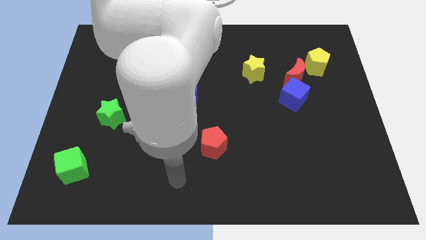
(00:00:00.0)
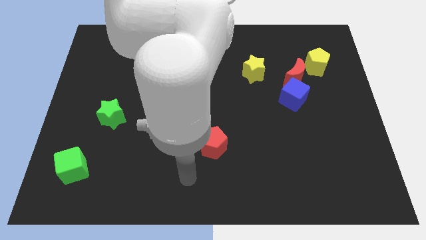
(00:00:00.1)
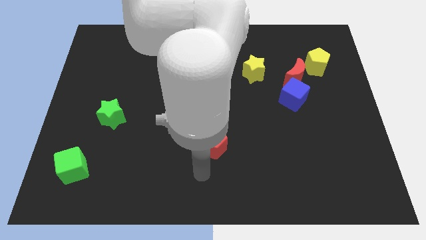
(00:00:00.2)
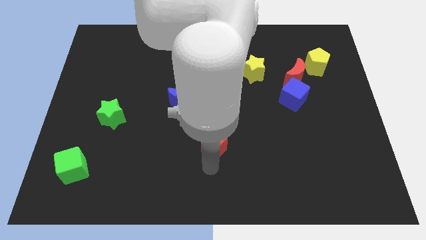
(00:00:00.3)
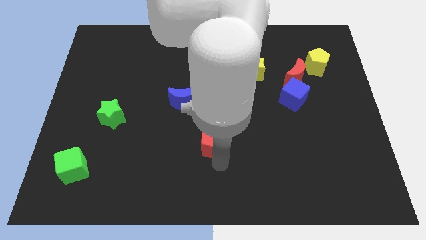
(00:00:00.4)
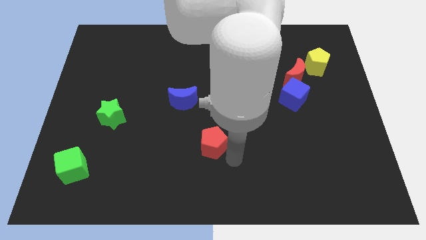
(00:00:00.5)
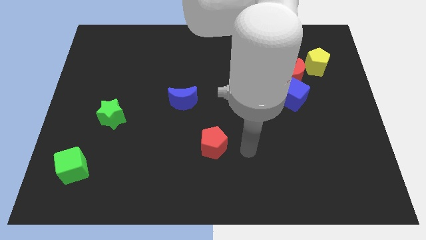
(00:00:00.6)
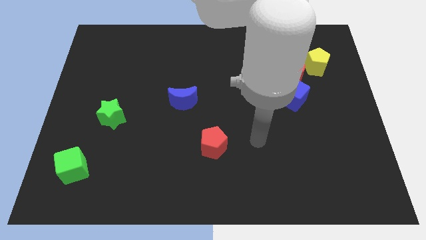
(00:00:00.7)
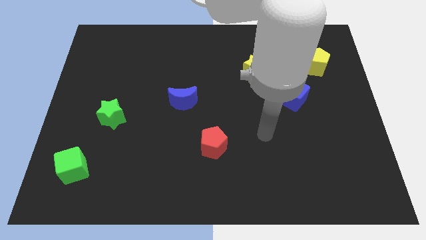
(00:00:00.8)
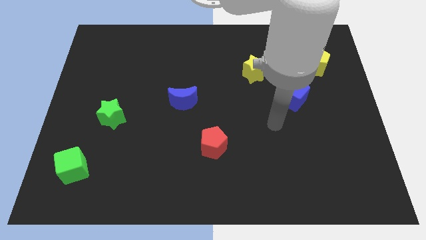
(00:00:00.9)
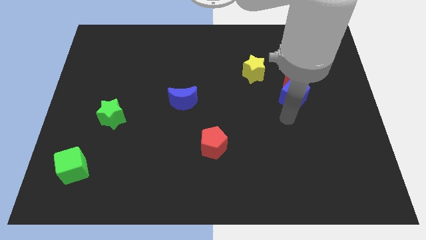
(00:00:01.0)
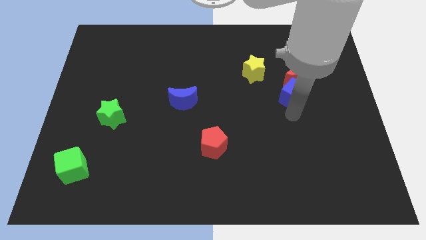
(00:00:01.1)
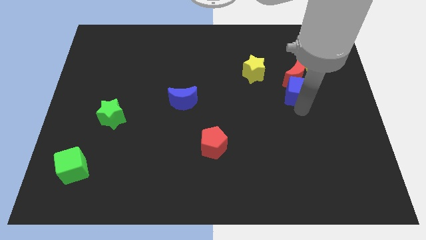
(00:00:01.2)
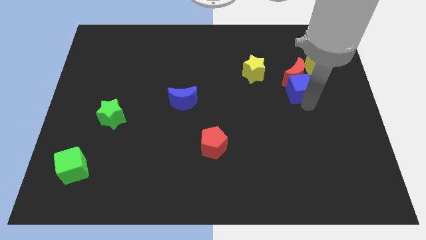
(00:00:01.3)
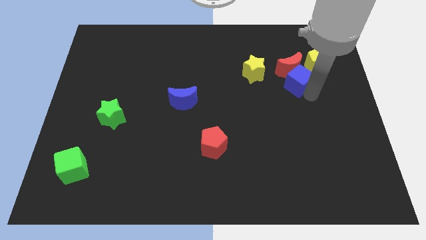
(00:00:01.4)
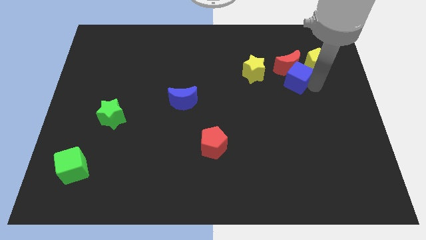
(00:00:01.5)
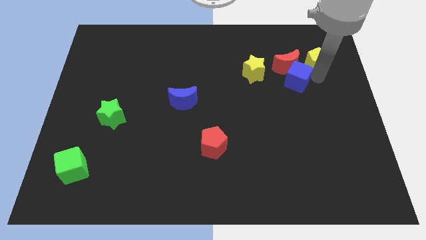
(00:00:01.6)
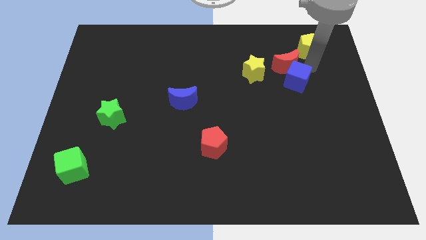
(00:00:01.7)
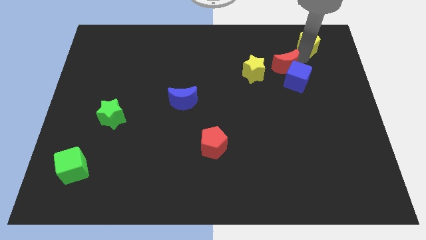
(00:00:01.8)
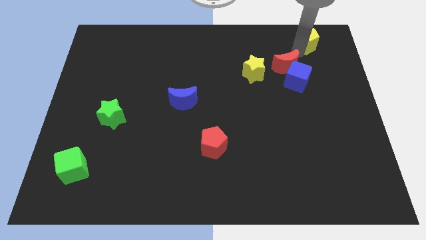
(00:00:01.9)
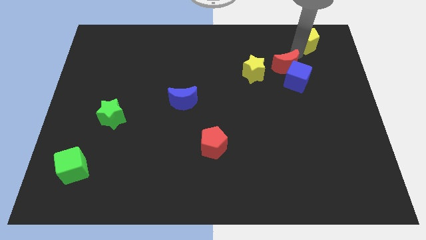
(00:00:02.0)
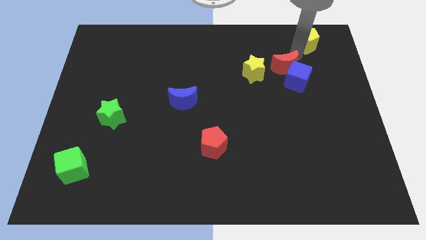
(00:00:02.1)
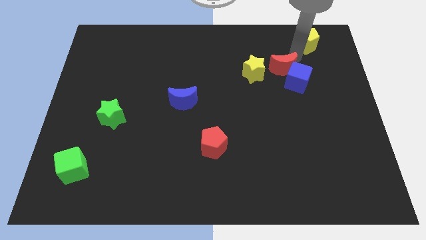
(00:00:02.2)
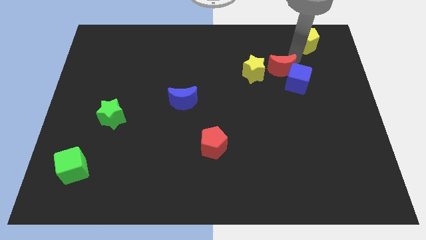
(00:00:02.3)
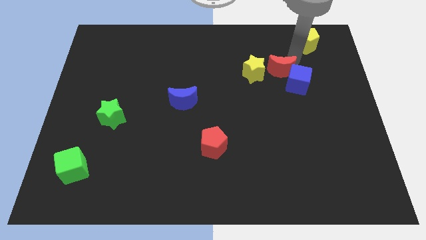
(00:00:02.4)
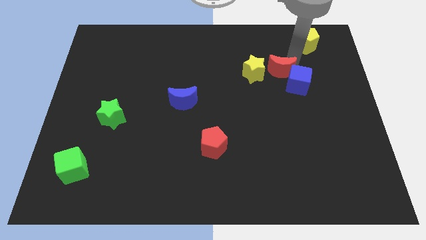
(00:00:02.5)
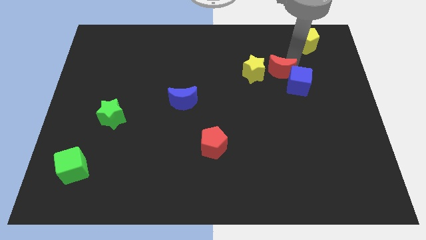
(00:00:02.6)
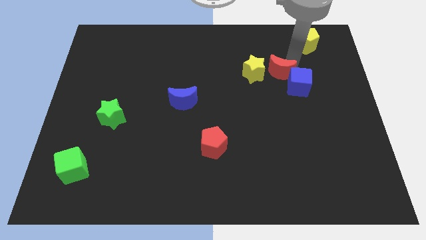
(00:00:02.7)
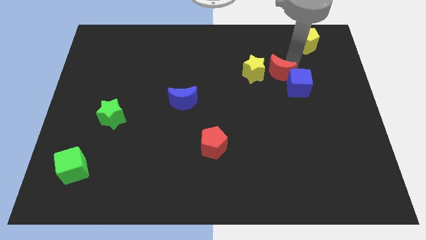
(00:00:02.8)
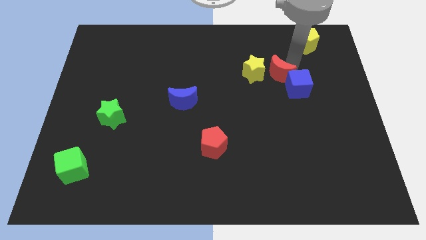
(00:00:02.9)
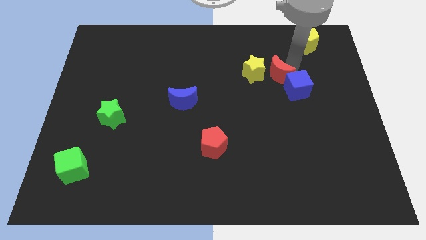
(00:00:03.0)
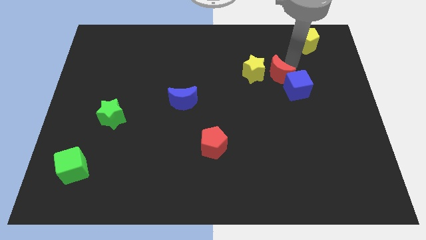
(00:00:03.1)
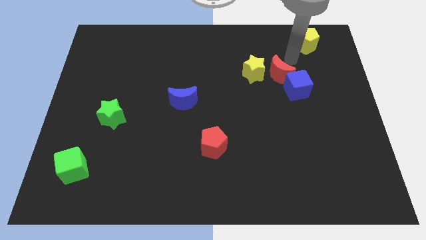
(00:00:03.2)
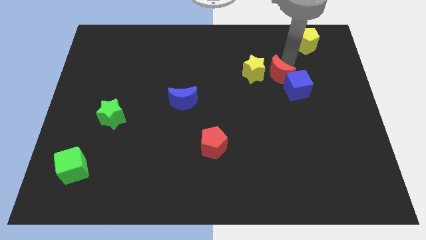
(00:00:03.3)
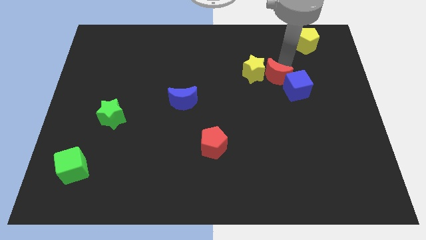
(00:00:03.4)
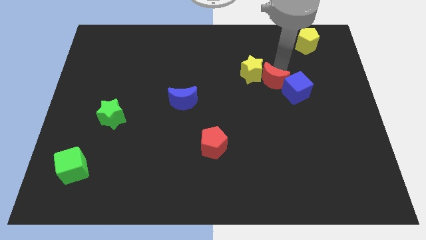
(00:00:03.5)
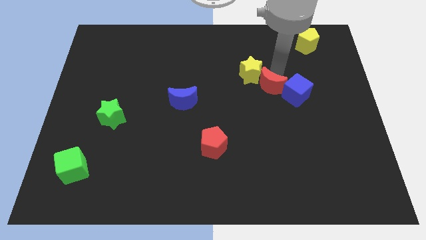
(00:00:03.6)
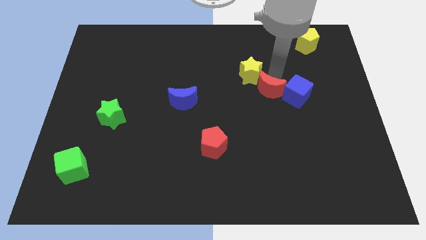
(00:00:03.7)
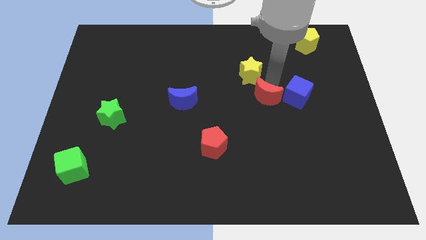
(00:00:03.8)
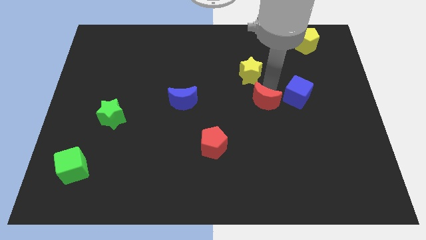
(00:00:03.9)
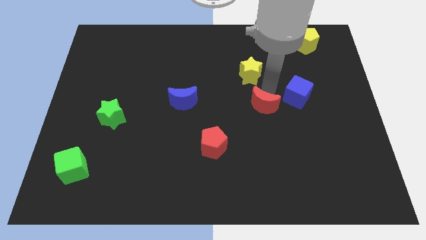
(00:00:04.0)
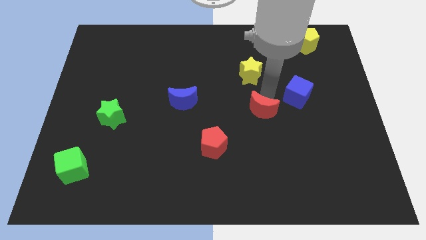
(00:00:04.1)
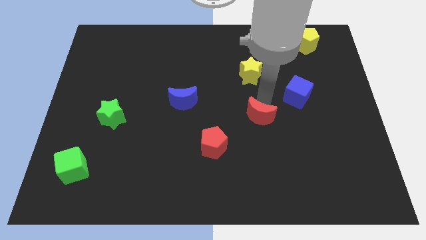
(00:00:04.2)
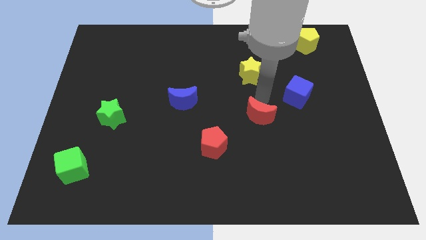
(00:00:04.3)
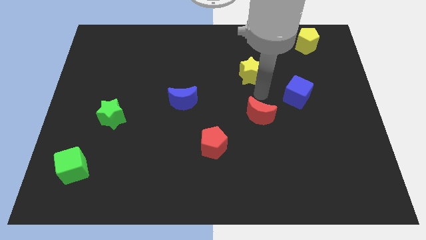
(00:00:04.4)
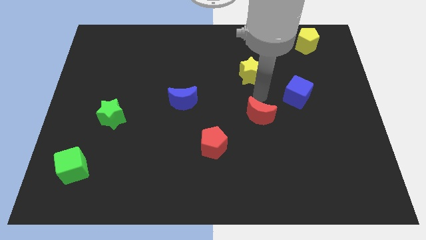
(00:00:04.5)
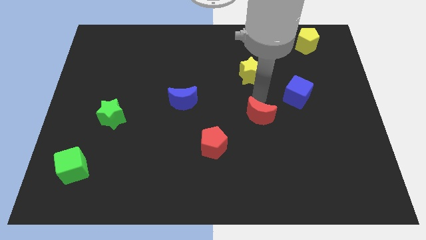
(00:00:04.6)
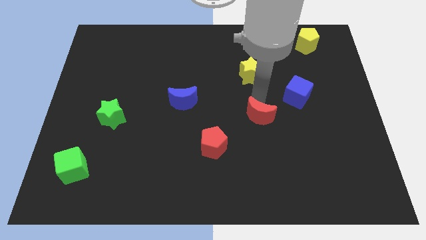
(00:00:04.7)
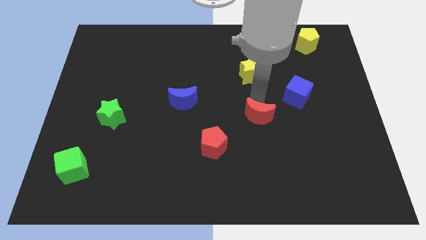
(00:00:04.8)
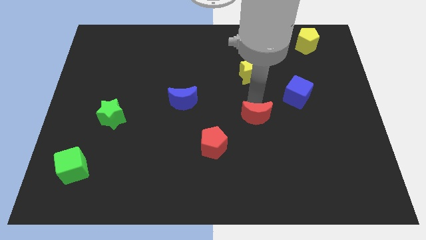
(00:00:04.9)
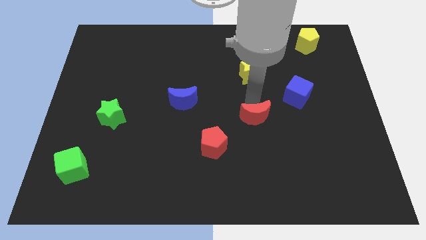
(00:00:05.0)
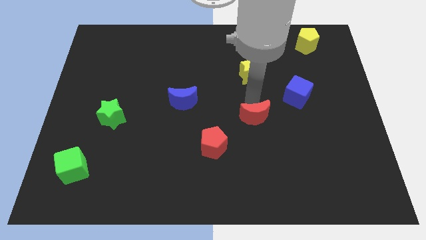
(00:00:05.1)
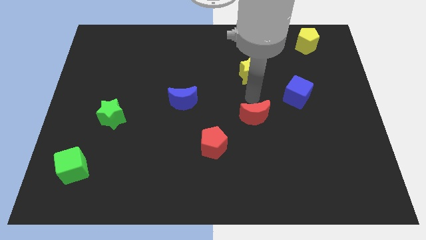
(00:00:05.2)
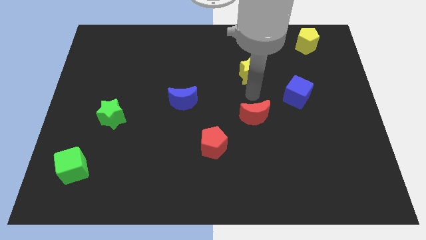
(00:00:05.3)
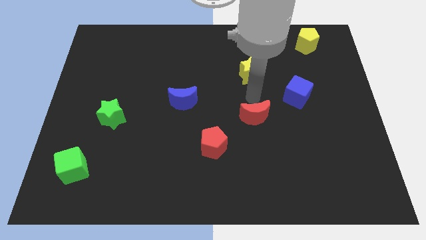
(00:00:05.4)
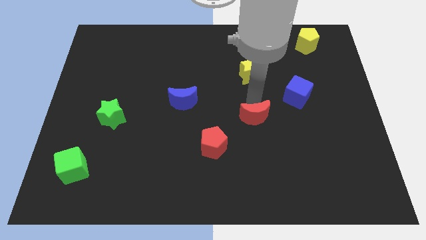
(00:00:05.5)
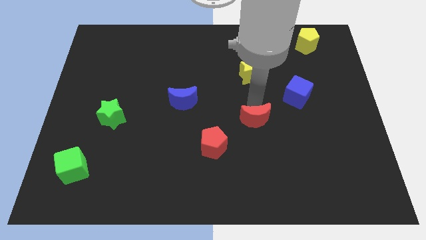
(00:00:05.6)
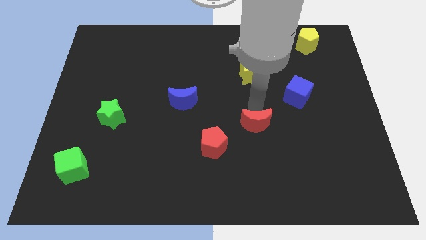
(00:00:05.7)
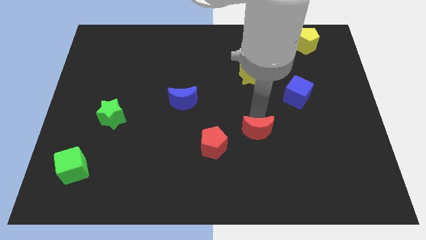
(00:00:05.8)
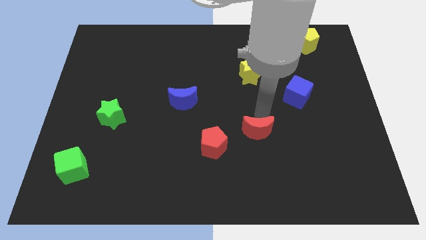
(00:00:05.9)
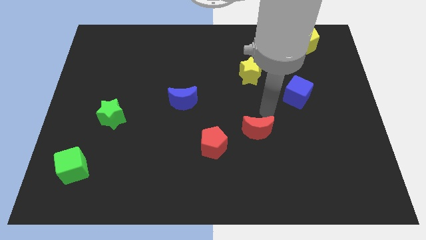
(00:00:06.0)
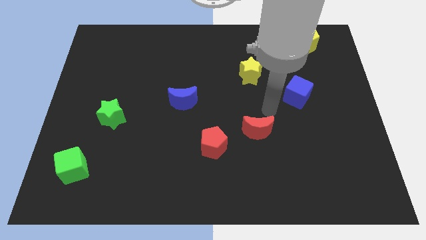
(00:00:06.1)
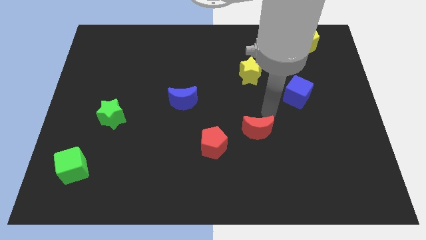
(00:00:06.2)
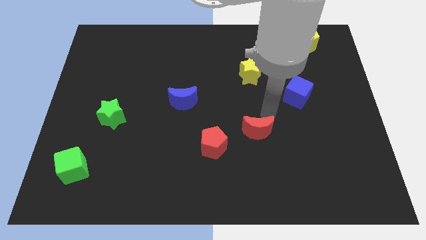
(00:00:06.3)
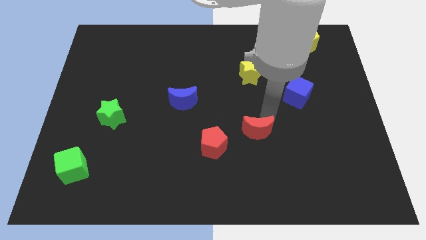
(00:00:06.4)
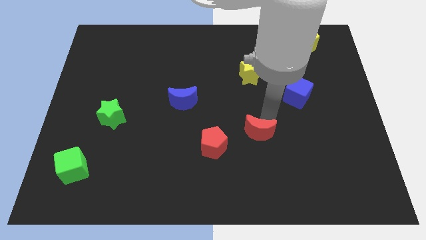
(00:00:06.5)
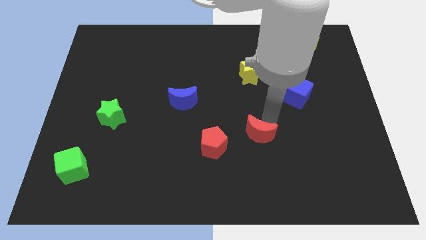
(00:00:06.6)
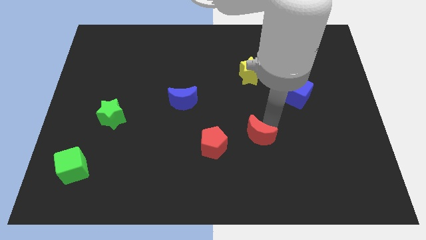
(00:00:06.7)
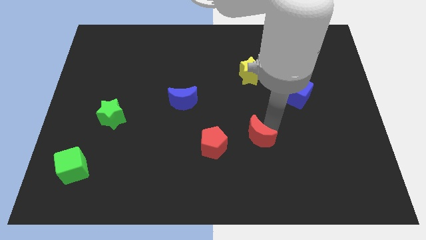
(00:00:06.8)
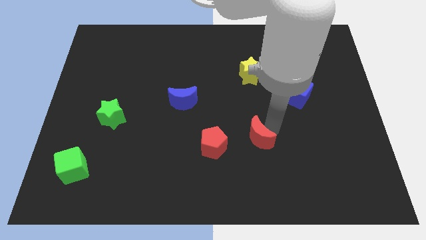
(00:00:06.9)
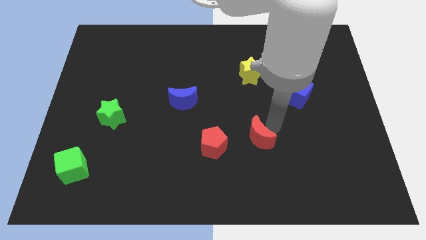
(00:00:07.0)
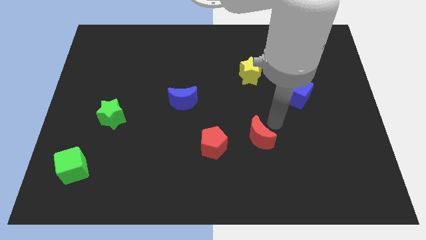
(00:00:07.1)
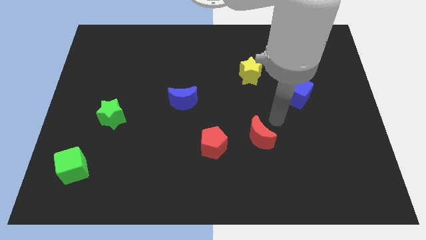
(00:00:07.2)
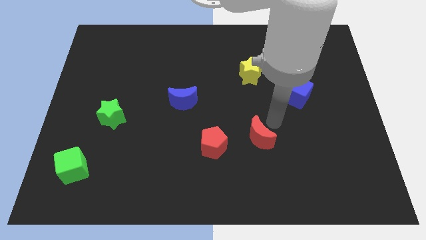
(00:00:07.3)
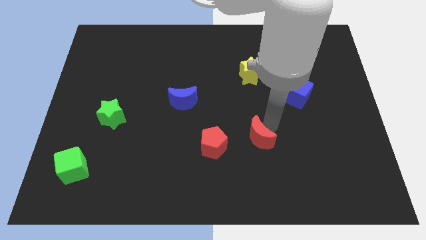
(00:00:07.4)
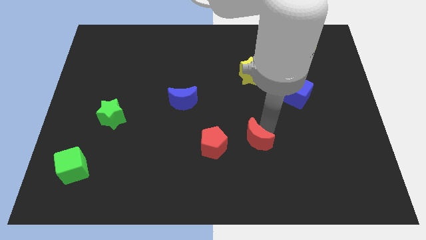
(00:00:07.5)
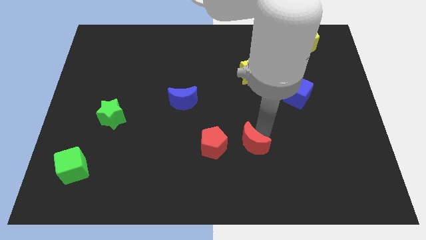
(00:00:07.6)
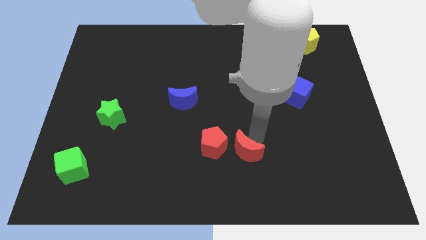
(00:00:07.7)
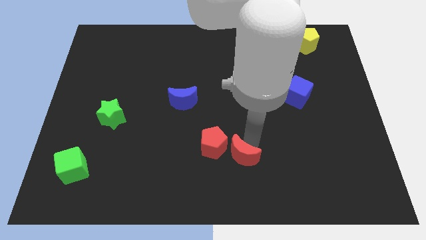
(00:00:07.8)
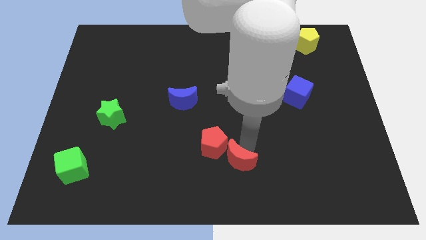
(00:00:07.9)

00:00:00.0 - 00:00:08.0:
move the red moon to the bottom
